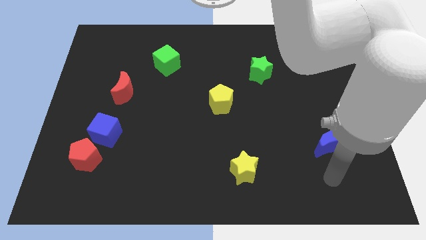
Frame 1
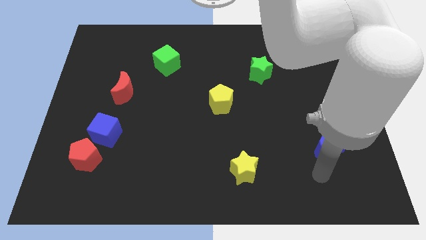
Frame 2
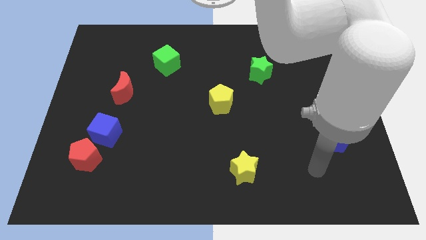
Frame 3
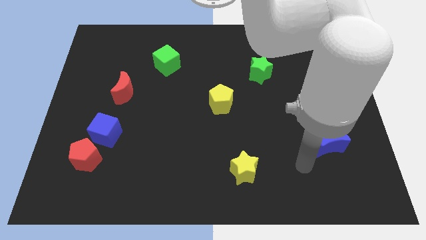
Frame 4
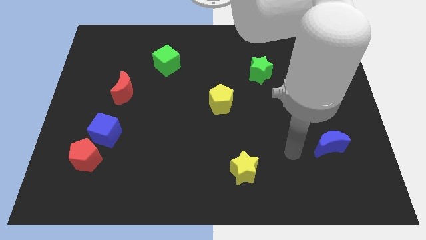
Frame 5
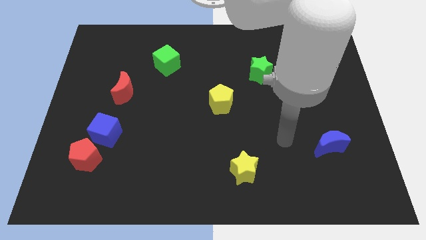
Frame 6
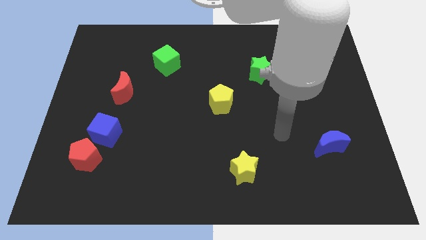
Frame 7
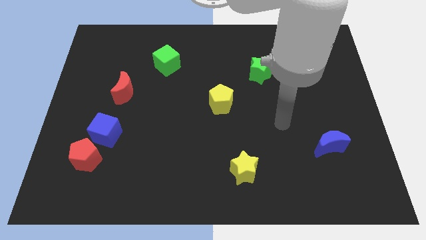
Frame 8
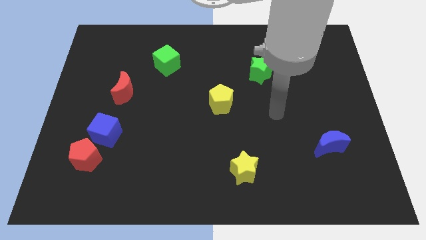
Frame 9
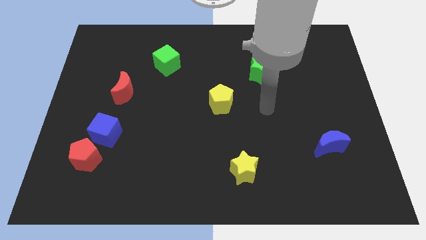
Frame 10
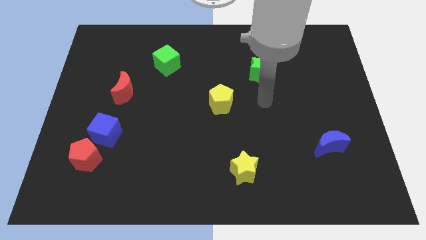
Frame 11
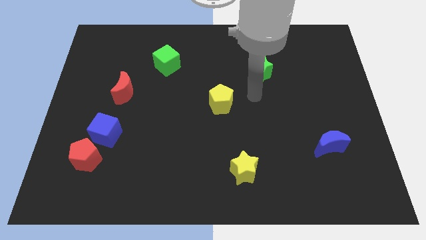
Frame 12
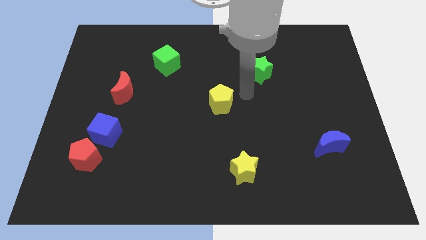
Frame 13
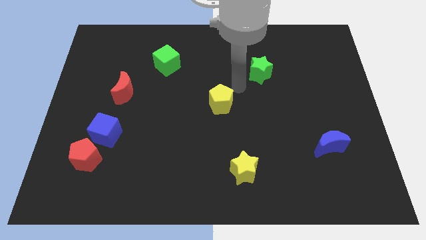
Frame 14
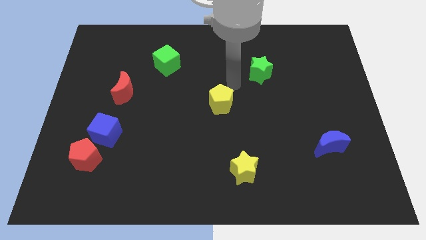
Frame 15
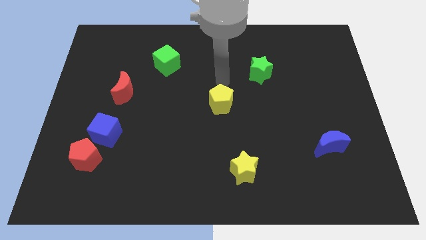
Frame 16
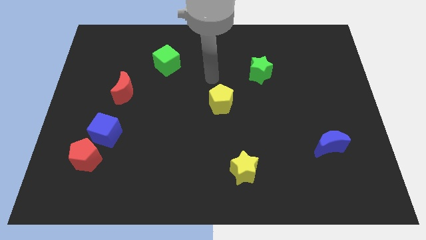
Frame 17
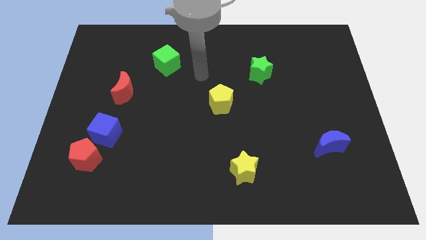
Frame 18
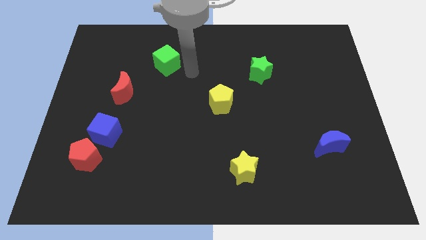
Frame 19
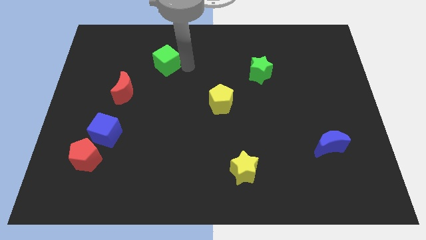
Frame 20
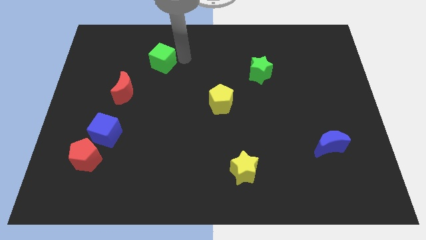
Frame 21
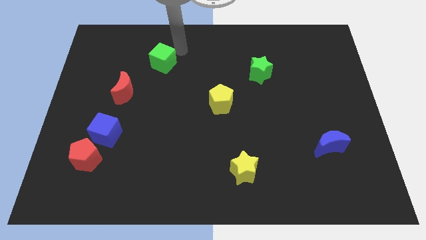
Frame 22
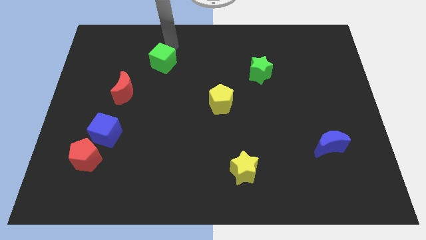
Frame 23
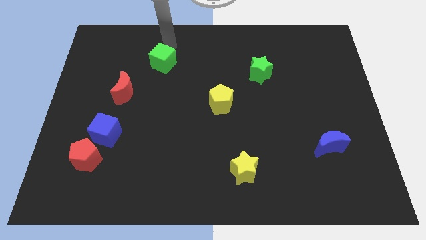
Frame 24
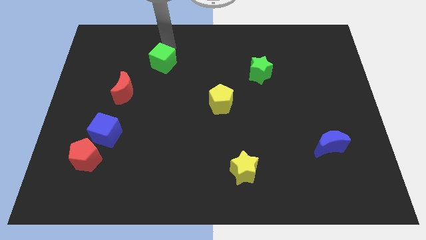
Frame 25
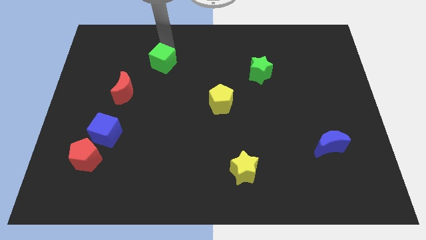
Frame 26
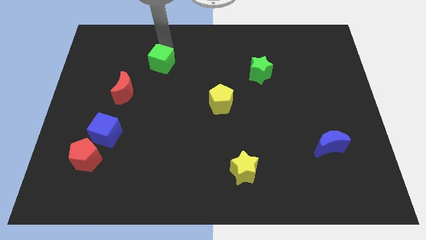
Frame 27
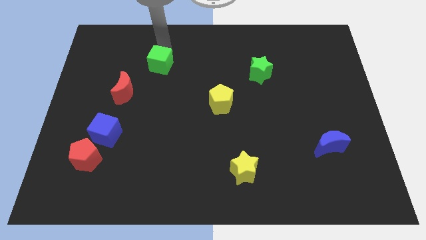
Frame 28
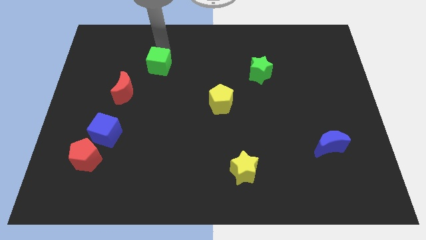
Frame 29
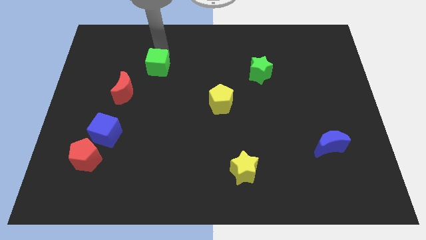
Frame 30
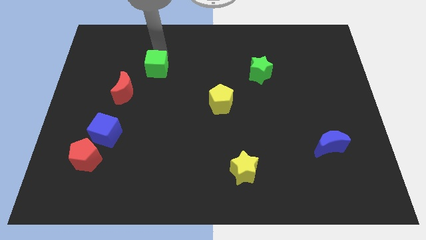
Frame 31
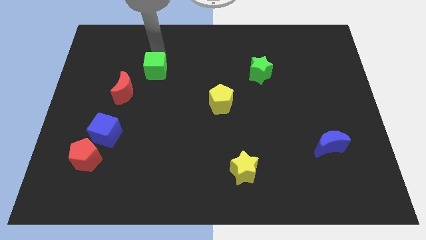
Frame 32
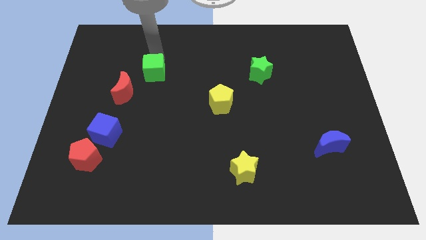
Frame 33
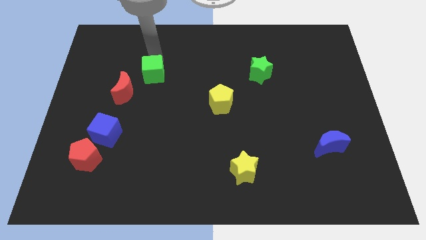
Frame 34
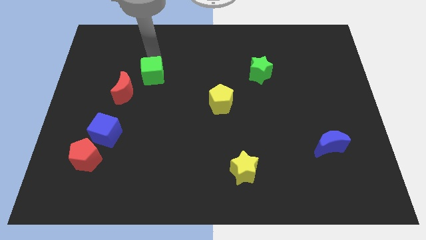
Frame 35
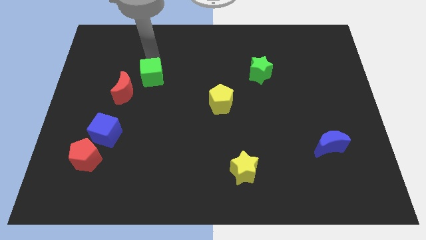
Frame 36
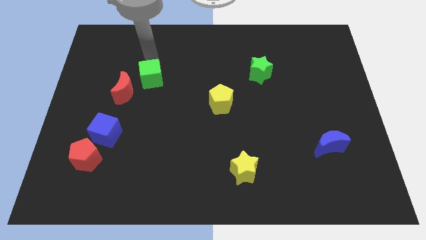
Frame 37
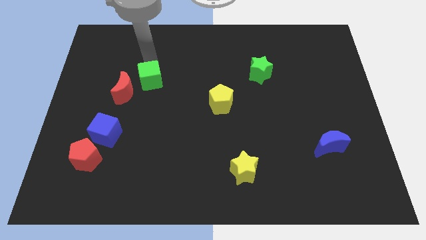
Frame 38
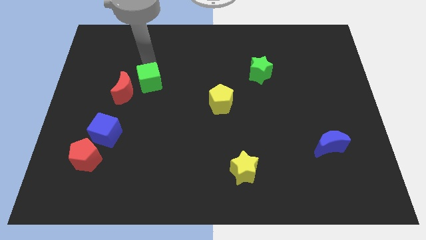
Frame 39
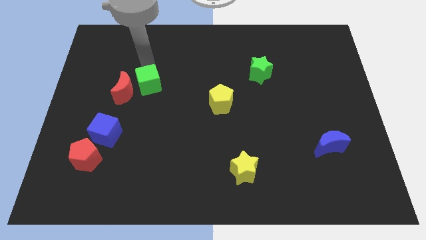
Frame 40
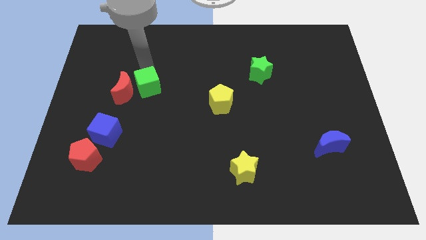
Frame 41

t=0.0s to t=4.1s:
slide the green cube down slightly

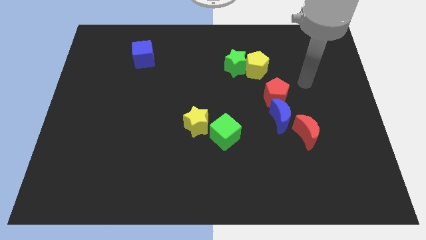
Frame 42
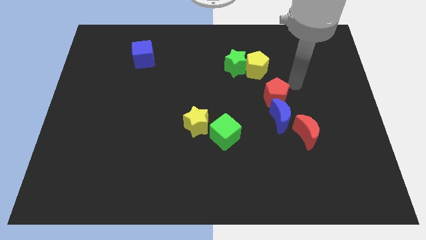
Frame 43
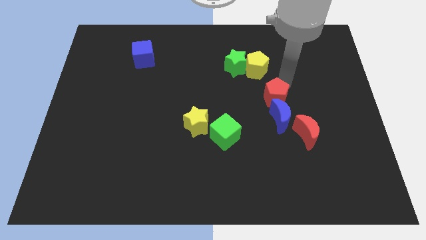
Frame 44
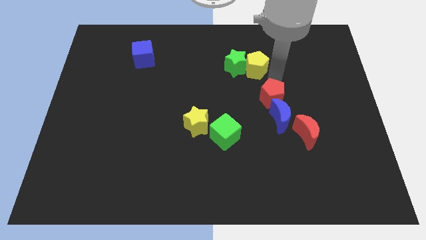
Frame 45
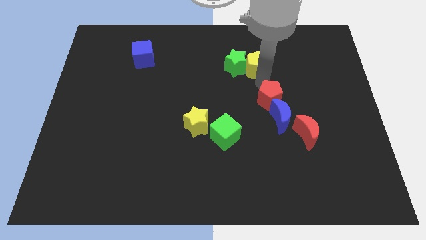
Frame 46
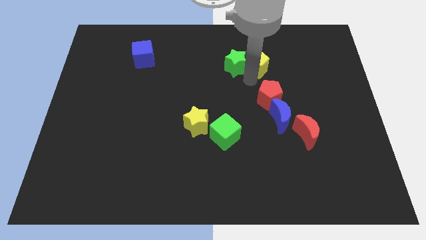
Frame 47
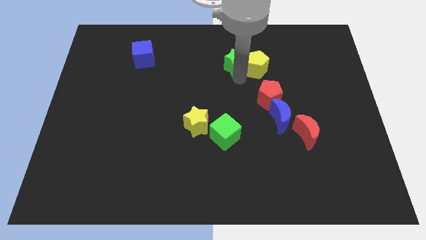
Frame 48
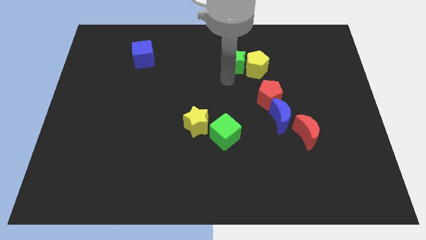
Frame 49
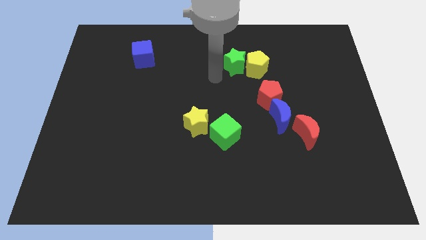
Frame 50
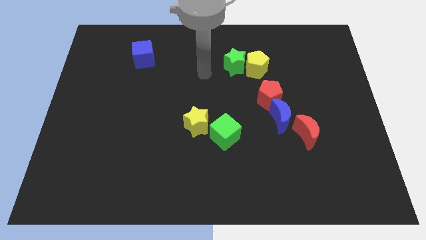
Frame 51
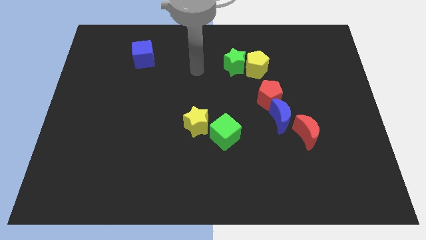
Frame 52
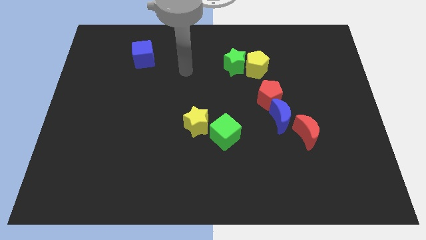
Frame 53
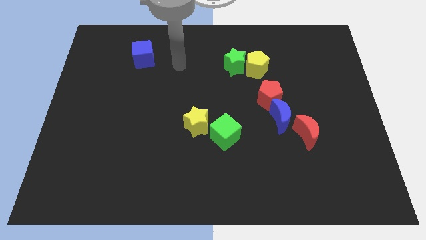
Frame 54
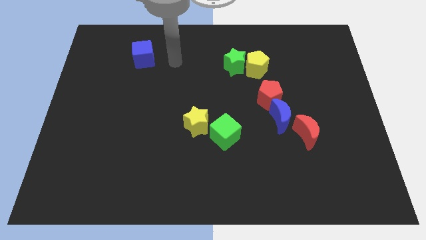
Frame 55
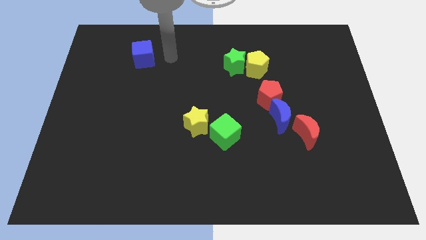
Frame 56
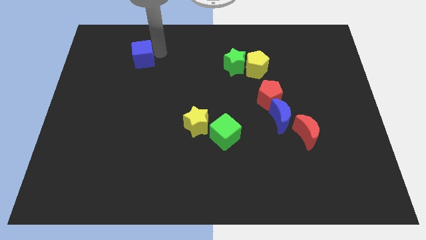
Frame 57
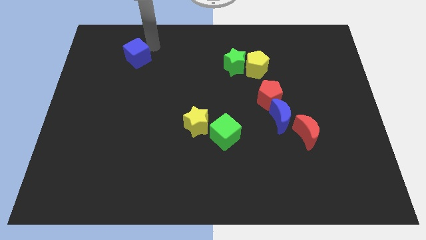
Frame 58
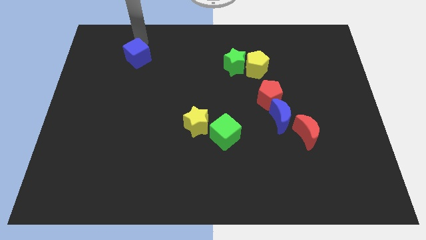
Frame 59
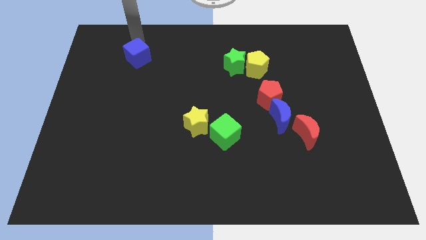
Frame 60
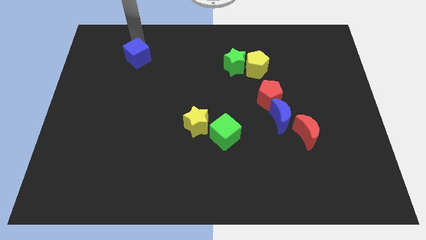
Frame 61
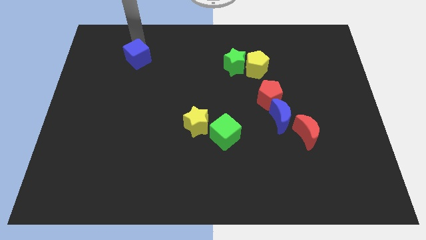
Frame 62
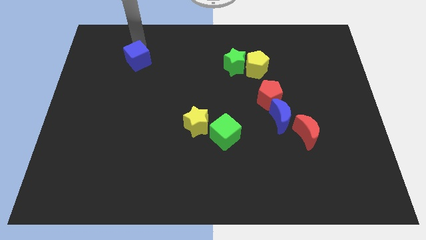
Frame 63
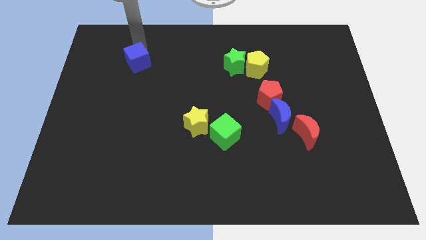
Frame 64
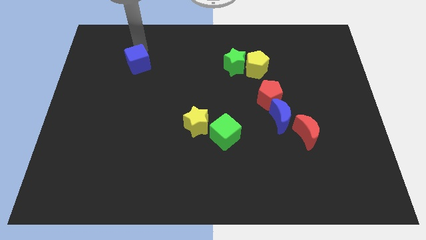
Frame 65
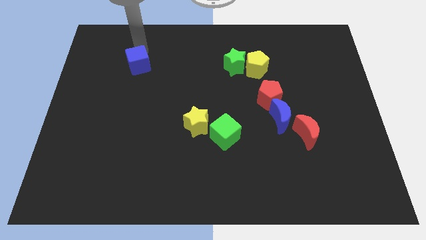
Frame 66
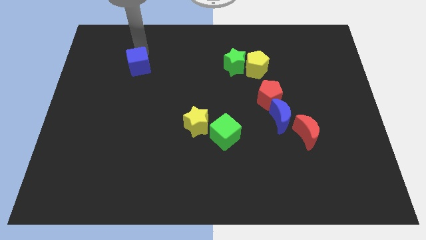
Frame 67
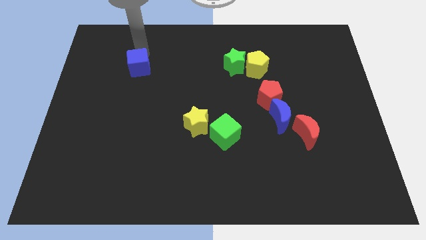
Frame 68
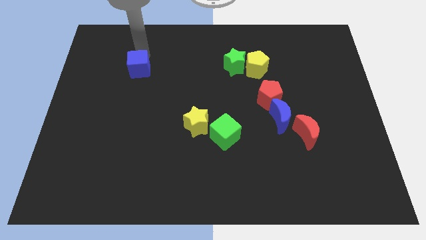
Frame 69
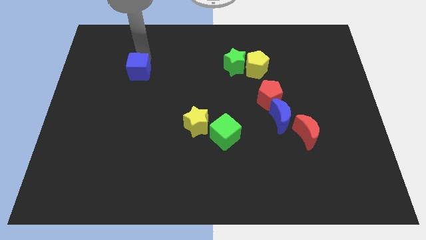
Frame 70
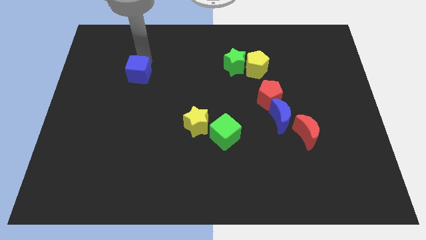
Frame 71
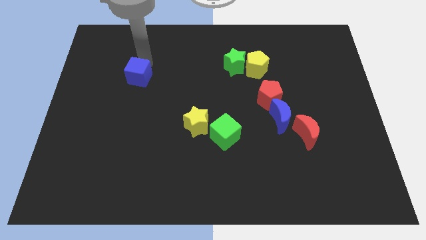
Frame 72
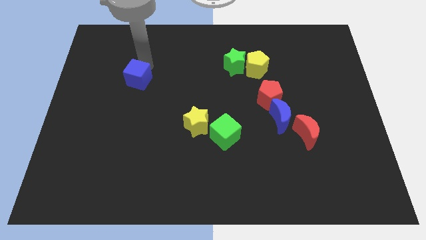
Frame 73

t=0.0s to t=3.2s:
slide the blue cube a little downwards

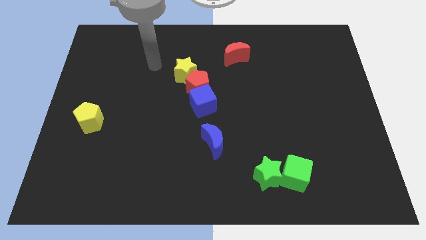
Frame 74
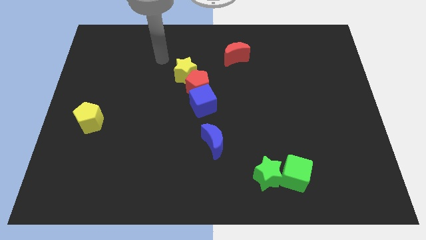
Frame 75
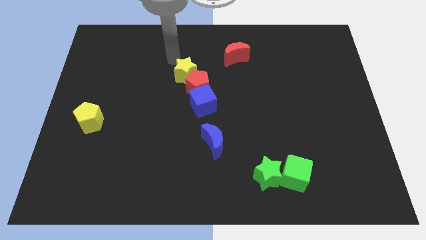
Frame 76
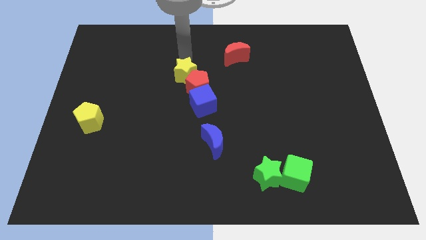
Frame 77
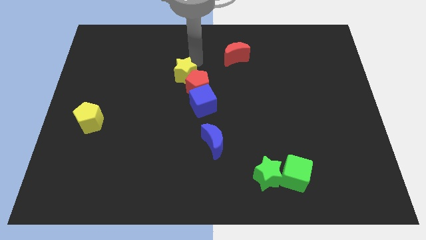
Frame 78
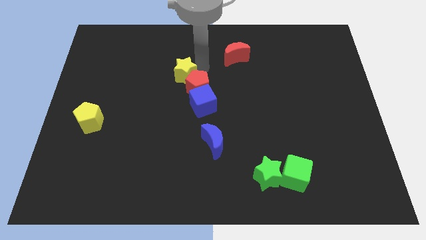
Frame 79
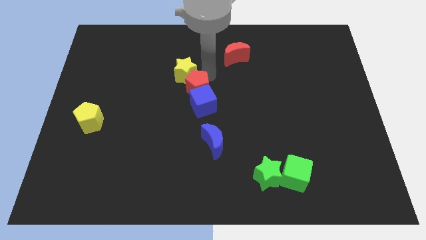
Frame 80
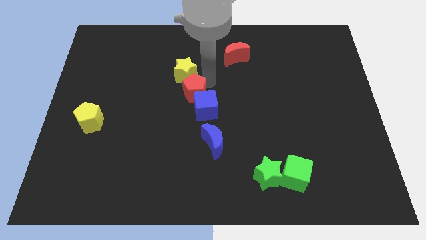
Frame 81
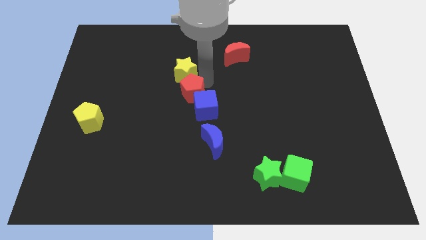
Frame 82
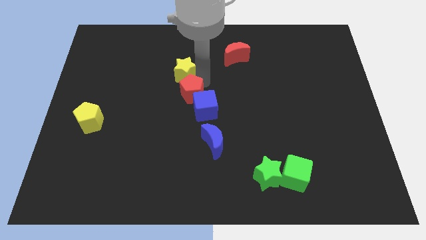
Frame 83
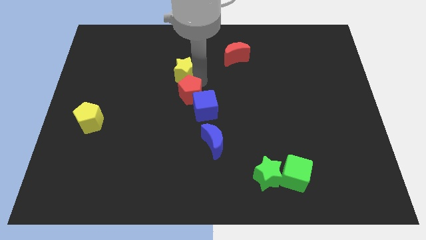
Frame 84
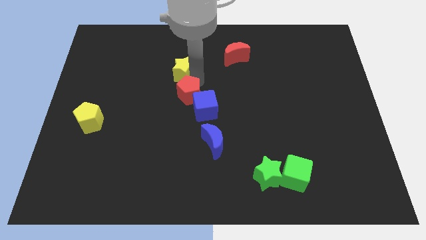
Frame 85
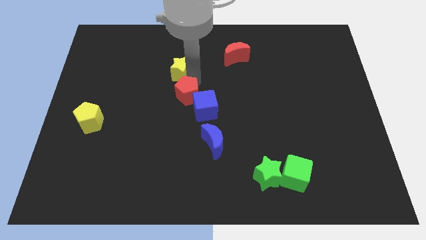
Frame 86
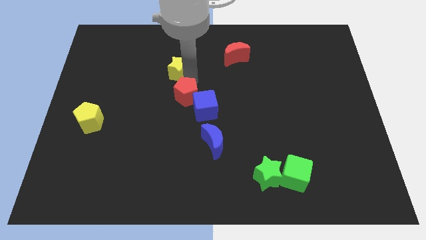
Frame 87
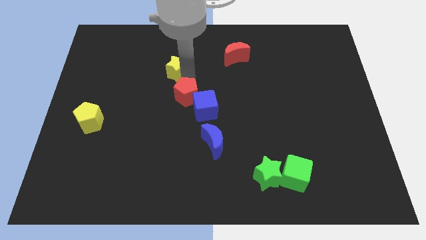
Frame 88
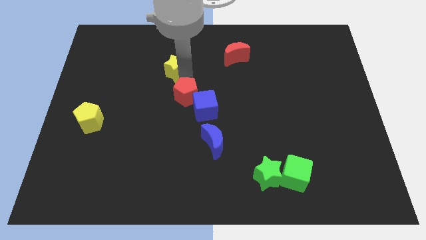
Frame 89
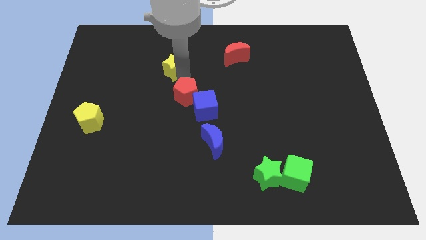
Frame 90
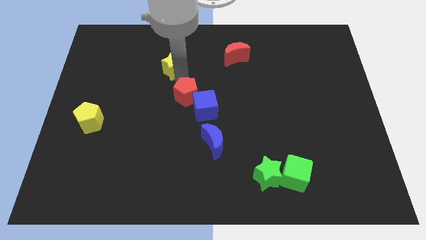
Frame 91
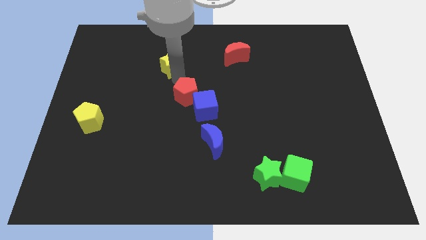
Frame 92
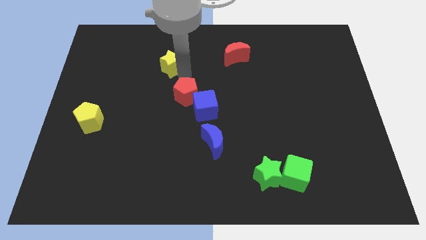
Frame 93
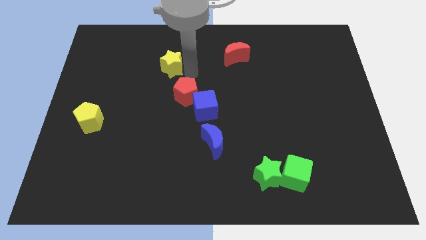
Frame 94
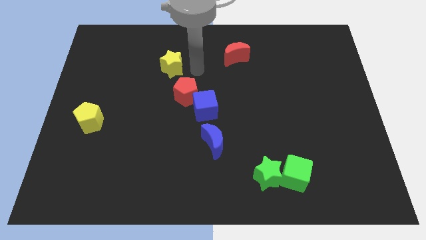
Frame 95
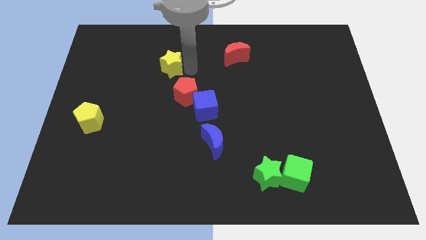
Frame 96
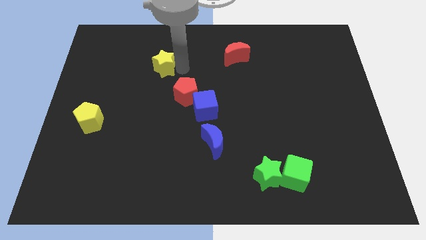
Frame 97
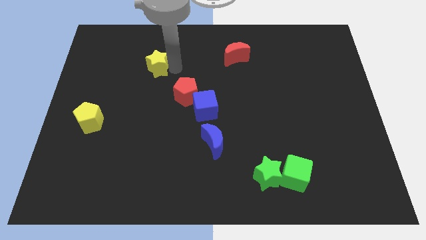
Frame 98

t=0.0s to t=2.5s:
slightly push the yellow star to the left
